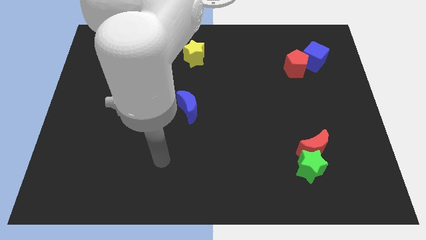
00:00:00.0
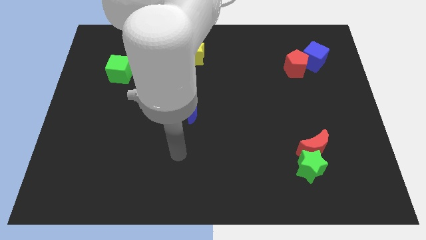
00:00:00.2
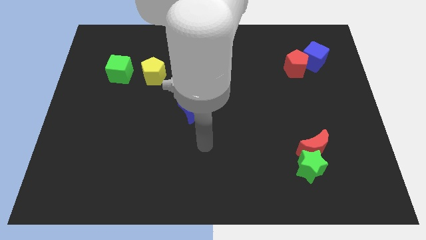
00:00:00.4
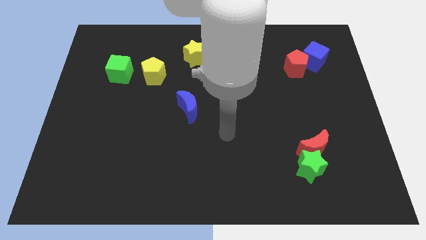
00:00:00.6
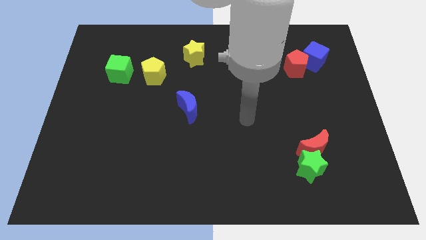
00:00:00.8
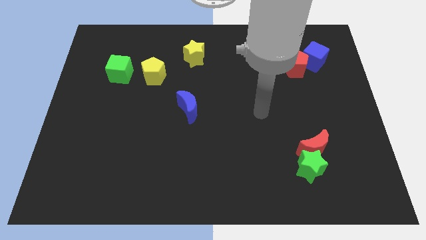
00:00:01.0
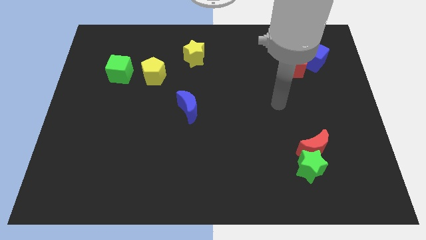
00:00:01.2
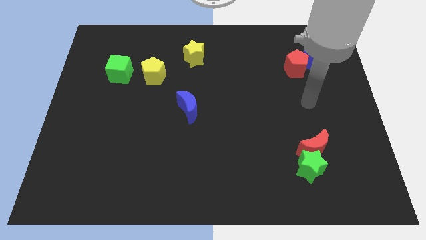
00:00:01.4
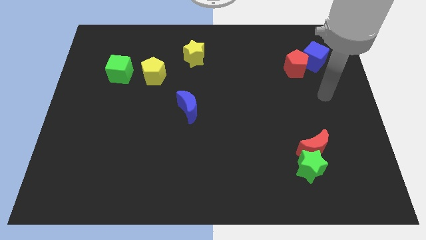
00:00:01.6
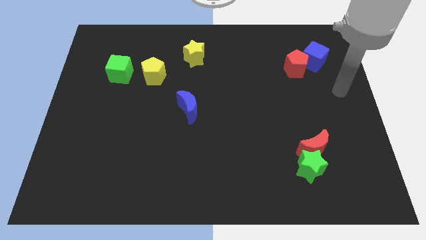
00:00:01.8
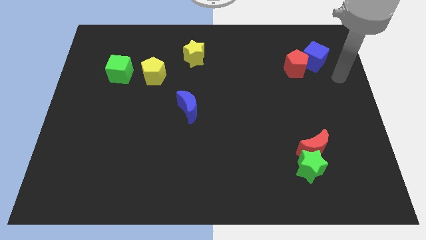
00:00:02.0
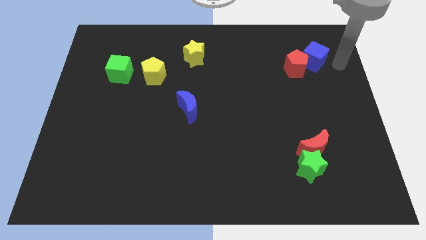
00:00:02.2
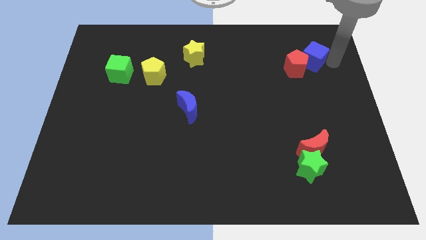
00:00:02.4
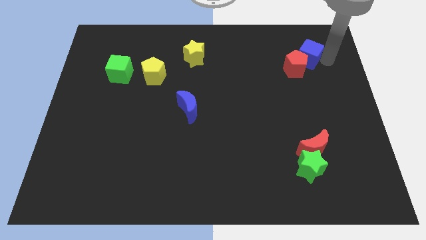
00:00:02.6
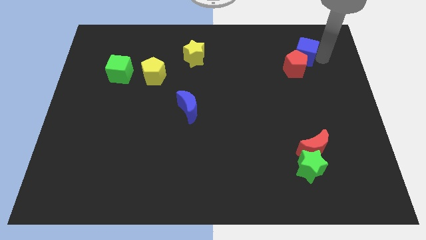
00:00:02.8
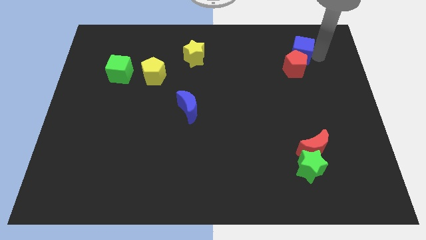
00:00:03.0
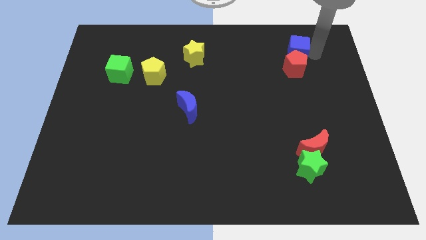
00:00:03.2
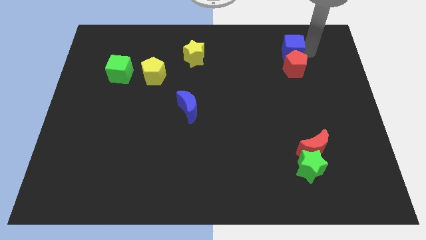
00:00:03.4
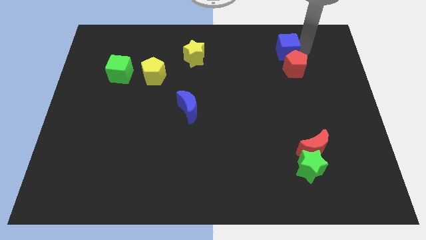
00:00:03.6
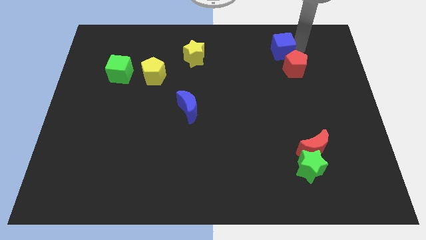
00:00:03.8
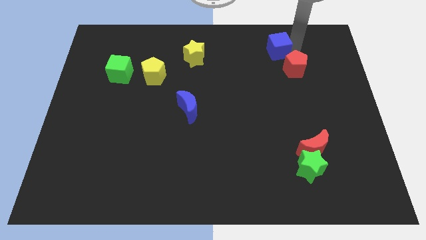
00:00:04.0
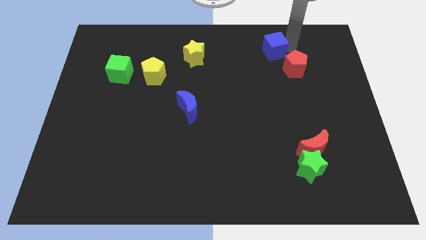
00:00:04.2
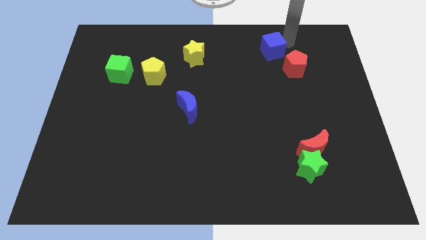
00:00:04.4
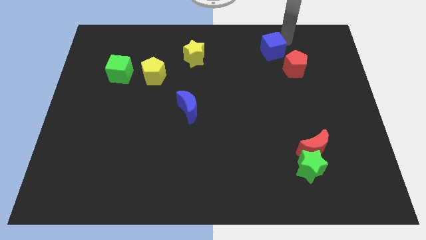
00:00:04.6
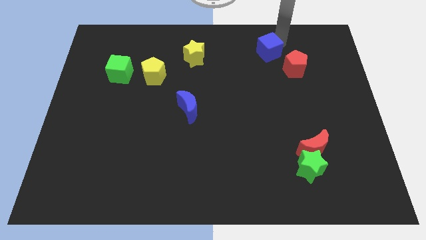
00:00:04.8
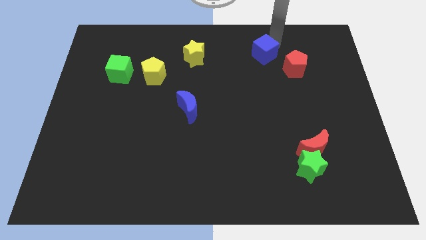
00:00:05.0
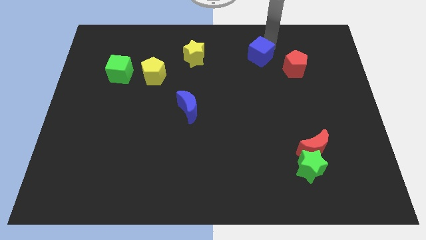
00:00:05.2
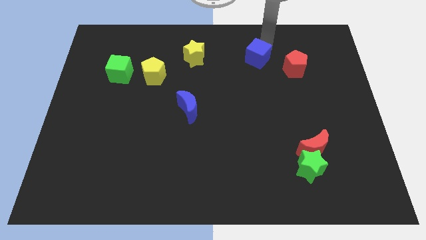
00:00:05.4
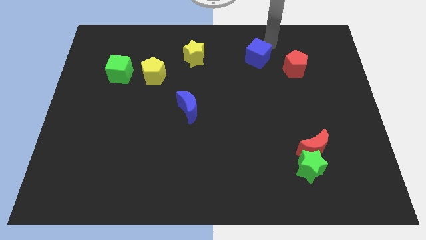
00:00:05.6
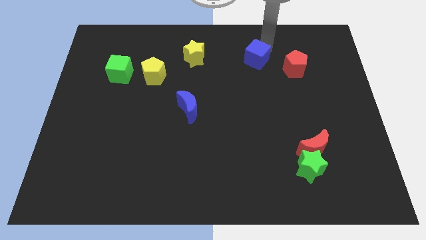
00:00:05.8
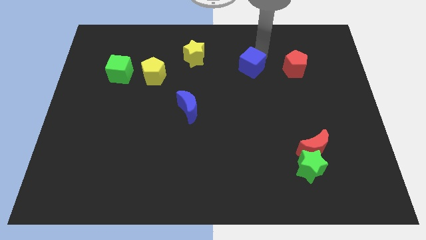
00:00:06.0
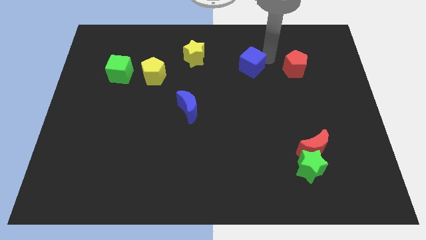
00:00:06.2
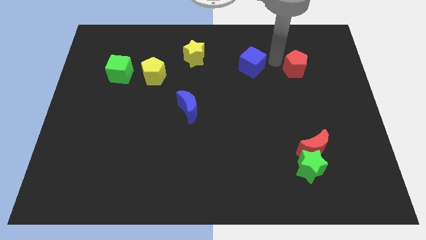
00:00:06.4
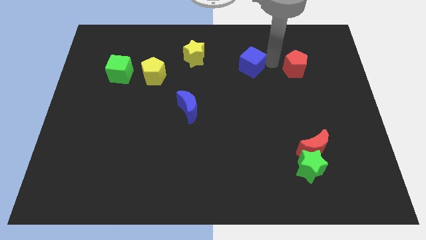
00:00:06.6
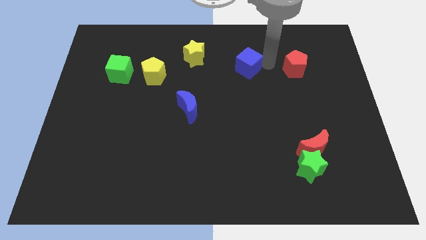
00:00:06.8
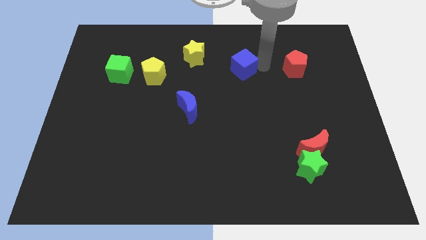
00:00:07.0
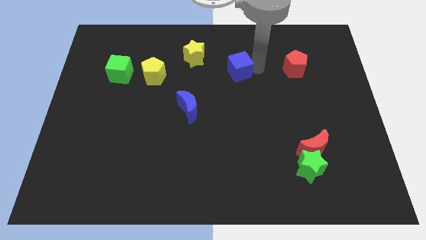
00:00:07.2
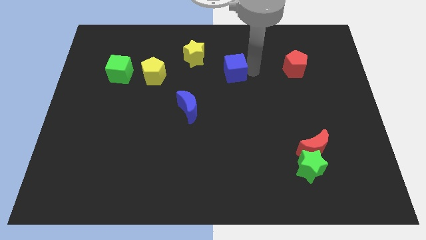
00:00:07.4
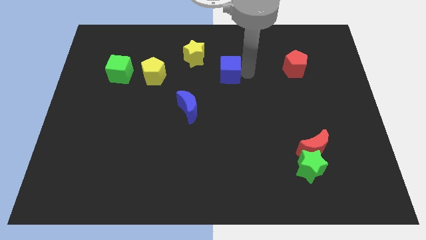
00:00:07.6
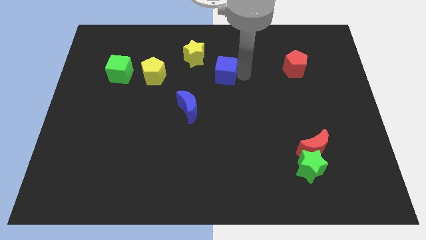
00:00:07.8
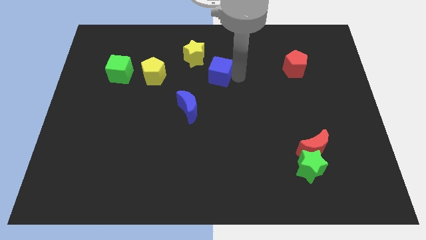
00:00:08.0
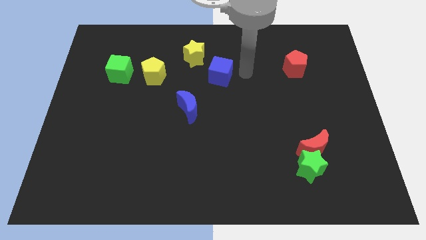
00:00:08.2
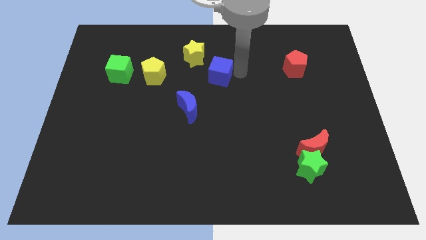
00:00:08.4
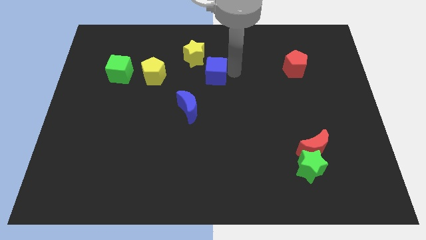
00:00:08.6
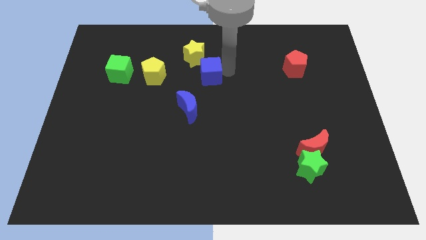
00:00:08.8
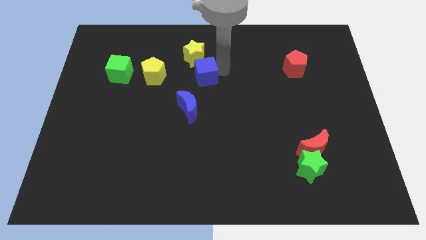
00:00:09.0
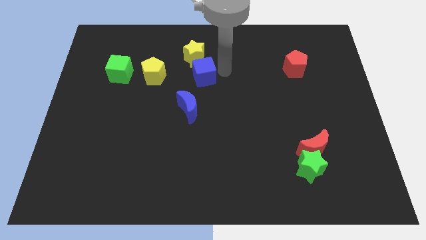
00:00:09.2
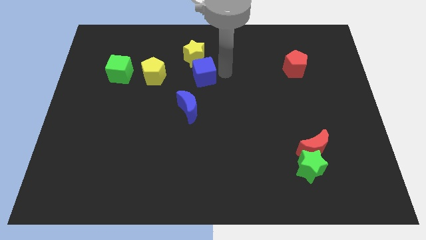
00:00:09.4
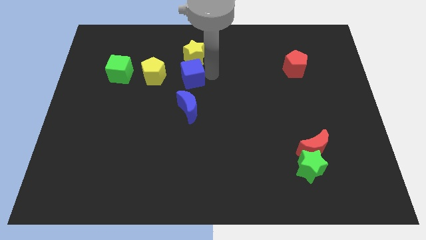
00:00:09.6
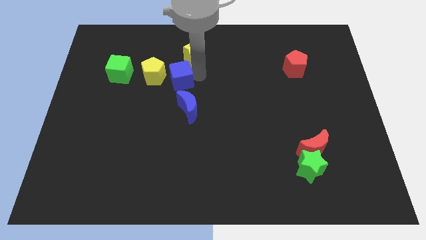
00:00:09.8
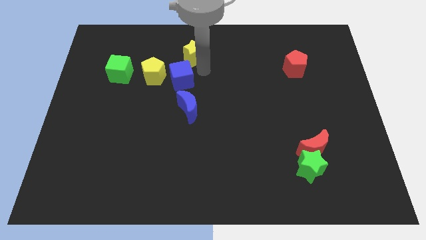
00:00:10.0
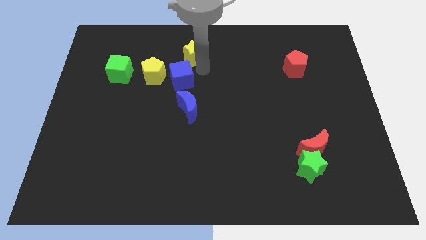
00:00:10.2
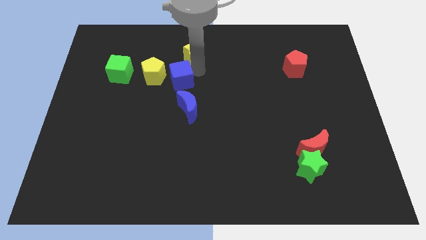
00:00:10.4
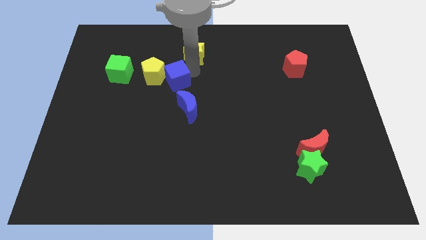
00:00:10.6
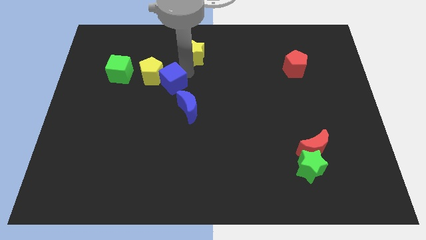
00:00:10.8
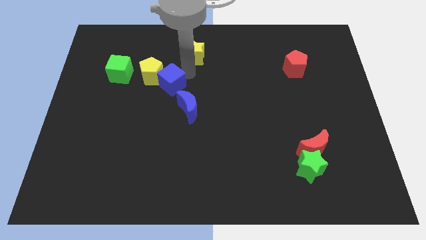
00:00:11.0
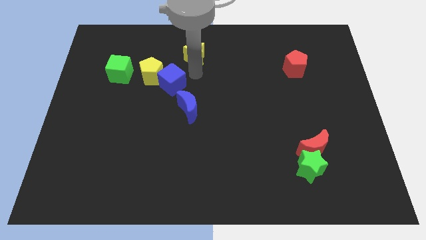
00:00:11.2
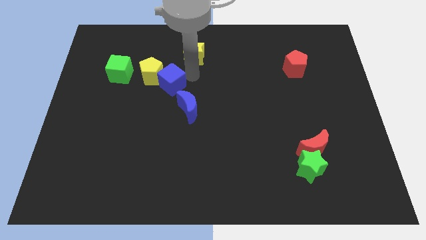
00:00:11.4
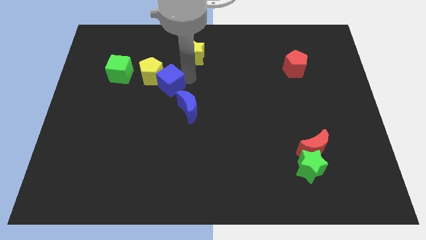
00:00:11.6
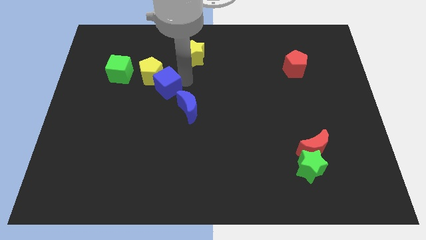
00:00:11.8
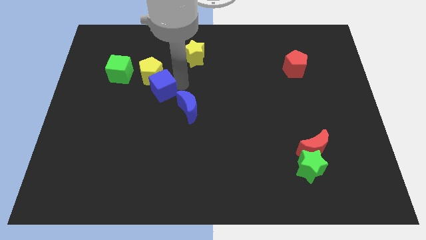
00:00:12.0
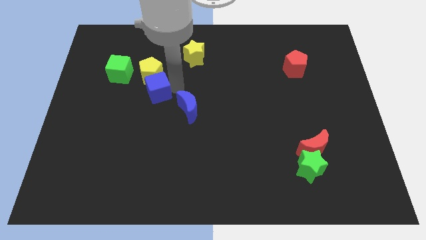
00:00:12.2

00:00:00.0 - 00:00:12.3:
slide the blue cube to the bottom right of the green cube
